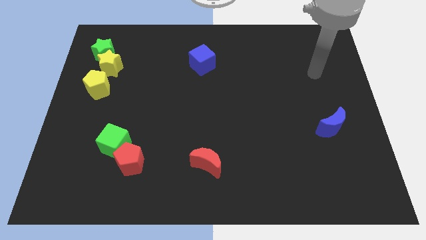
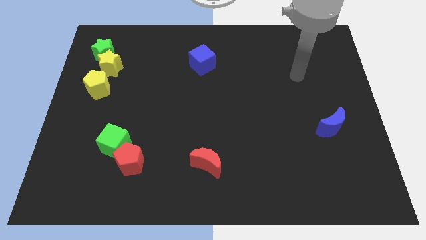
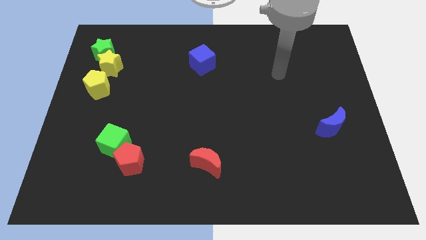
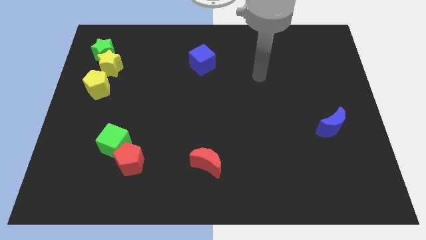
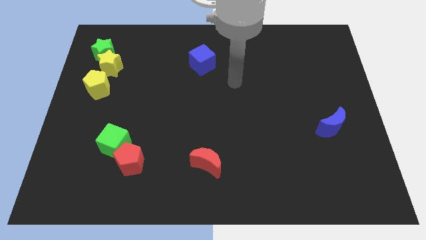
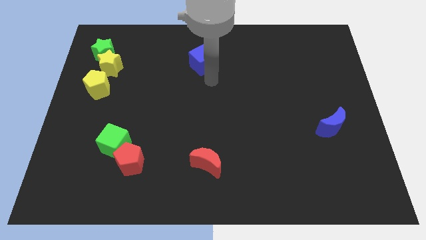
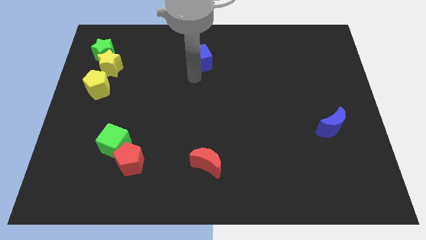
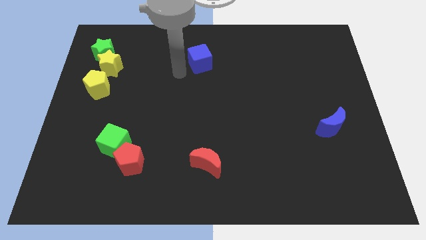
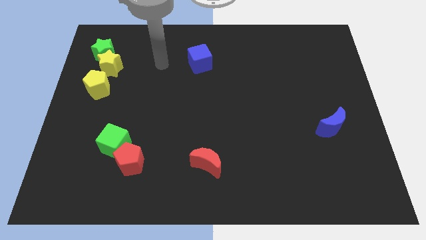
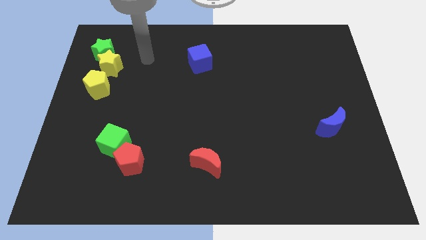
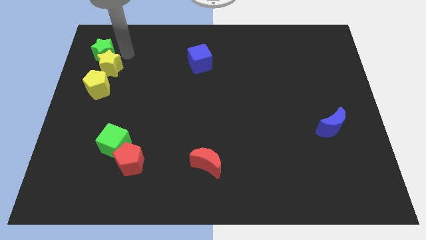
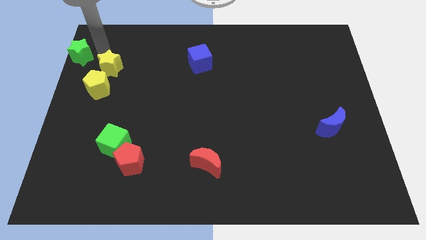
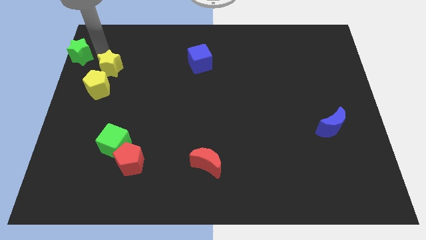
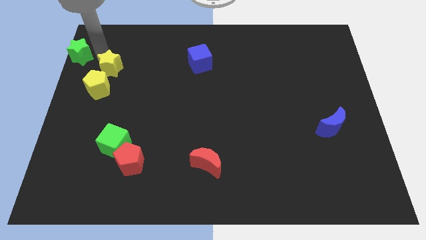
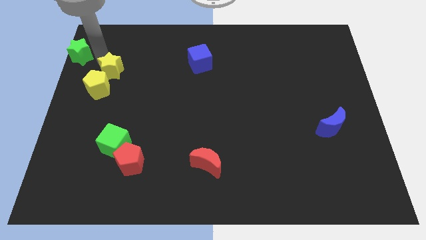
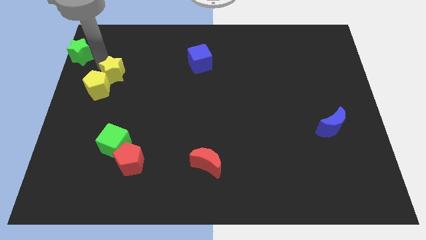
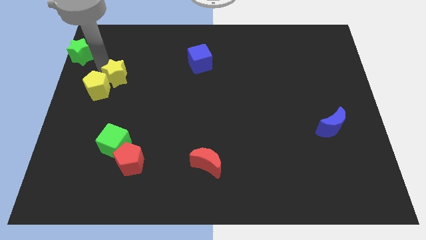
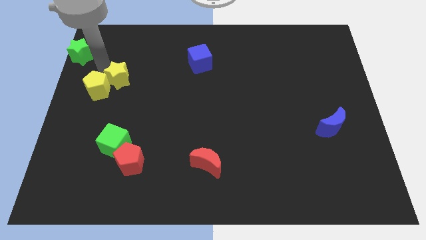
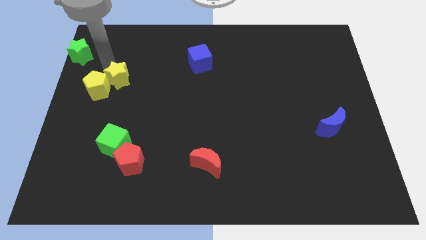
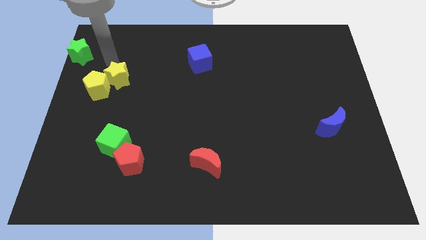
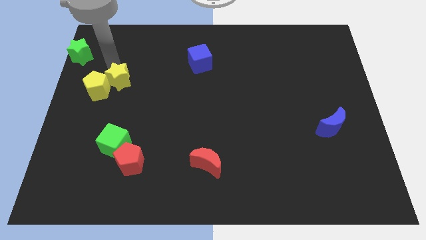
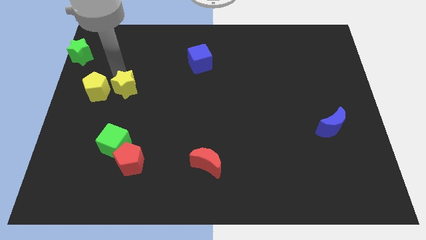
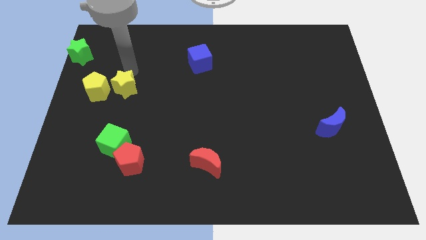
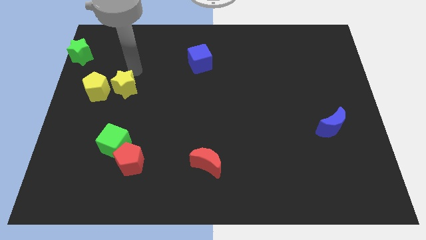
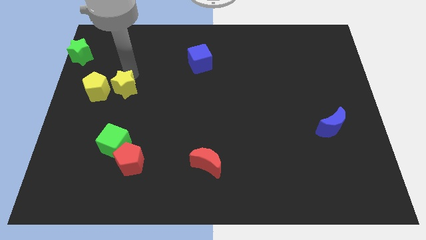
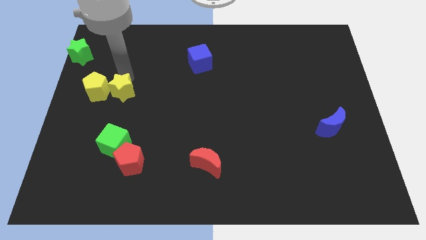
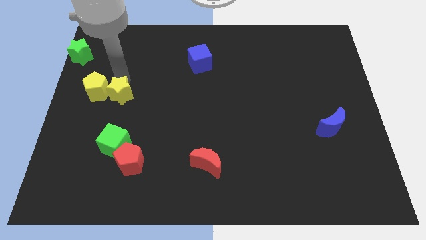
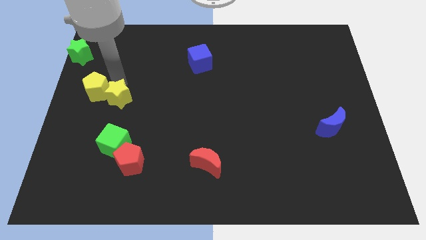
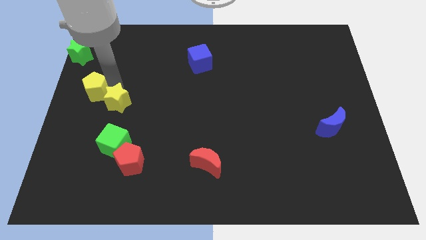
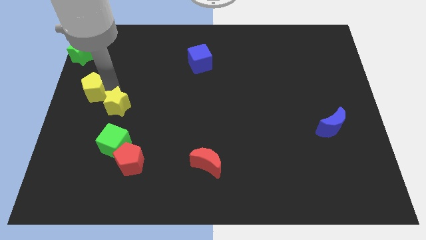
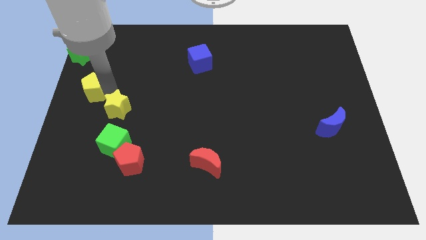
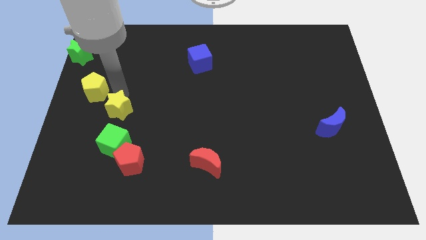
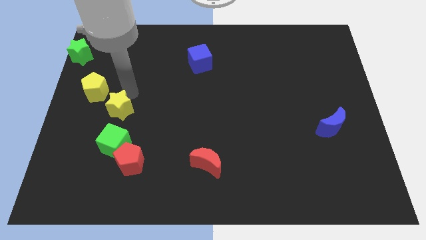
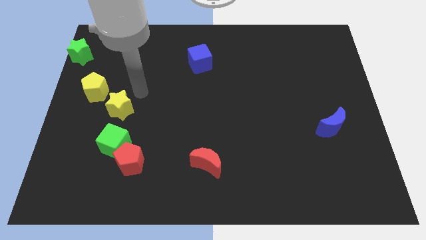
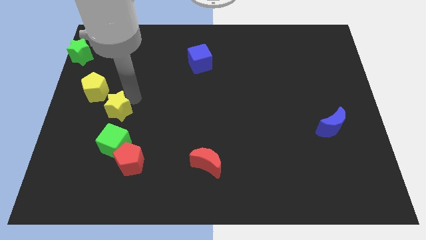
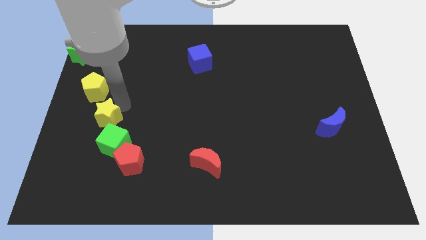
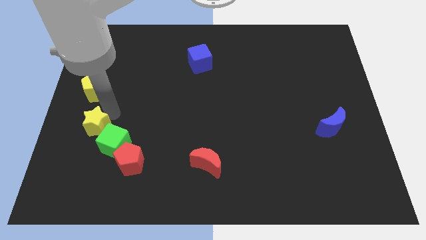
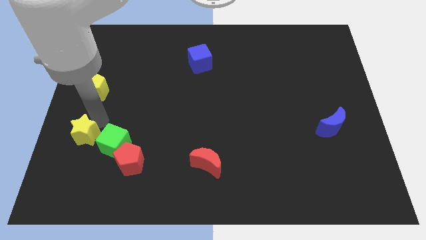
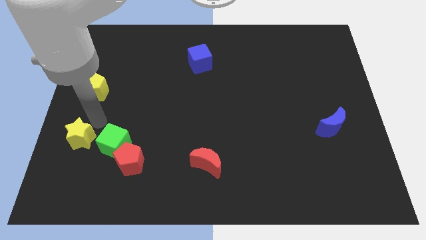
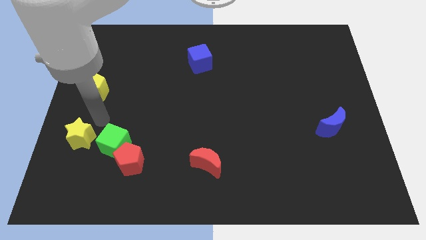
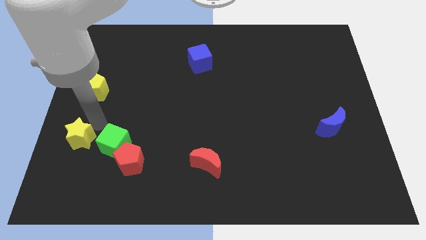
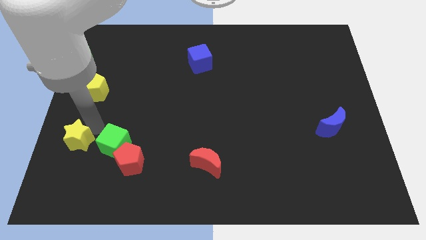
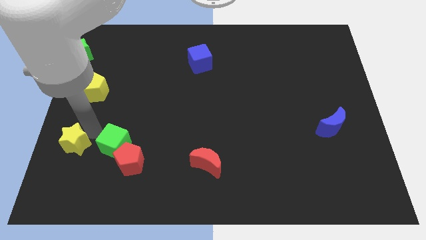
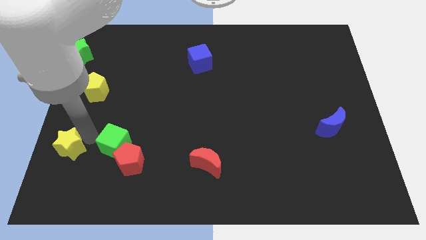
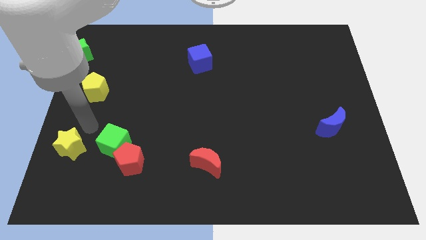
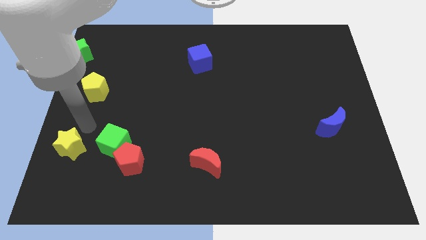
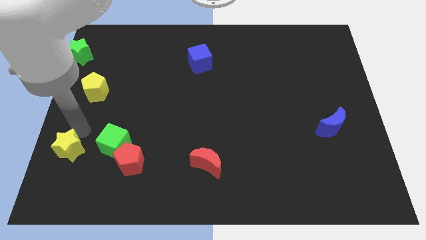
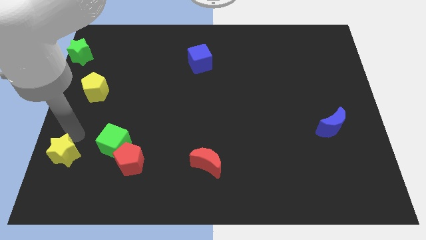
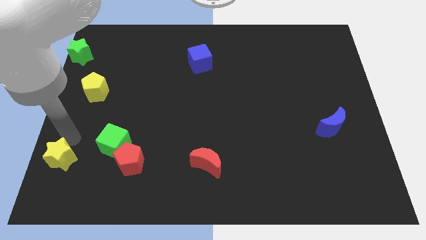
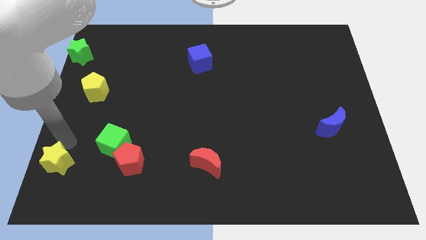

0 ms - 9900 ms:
push the yellow star to the bottom left of the board

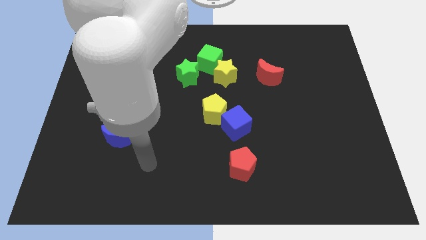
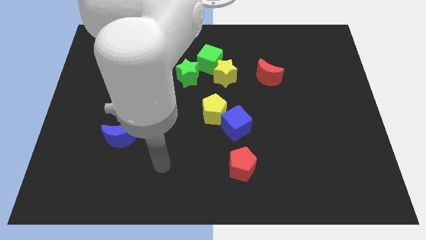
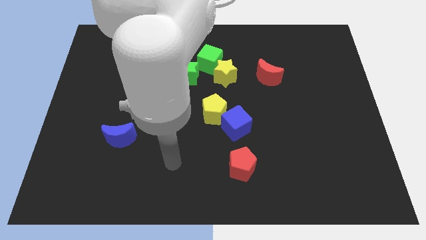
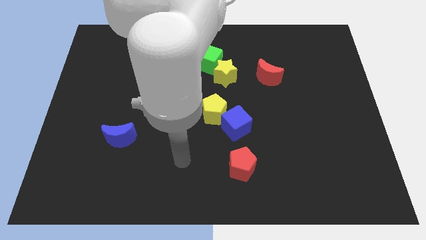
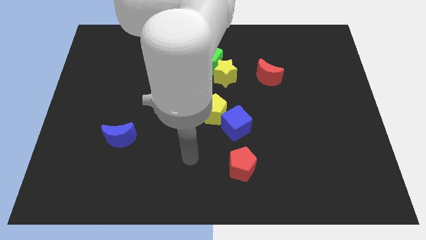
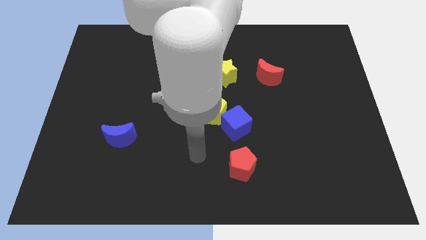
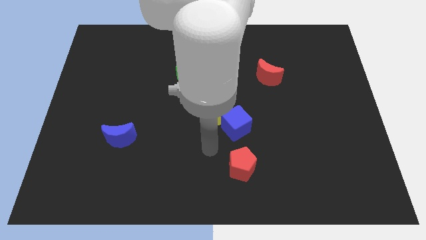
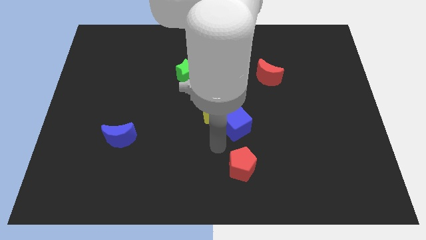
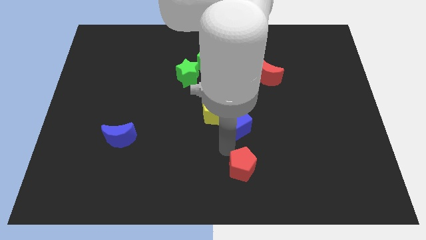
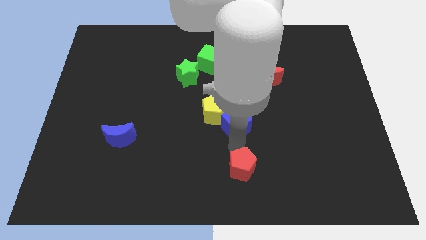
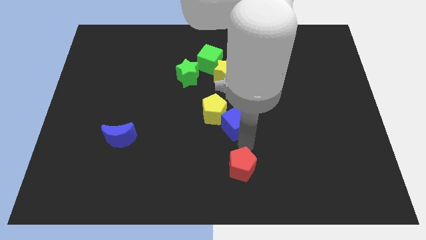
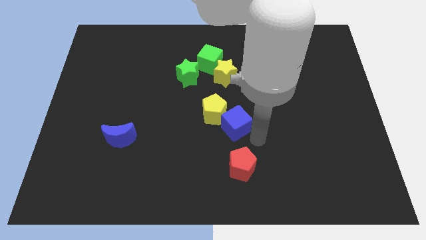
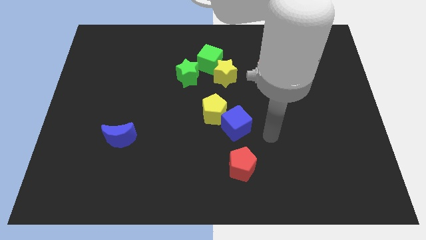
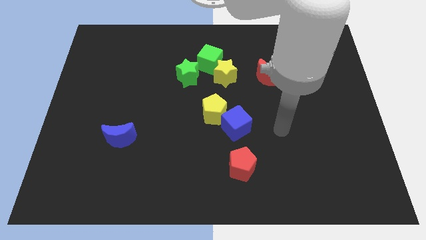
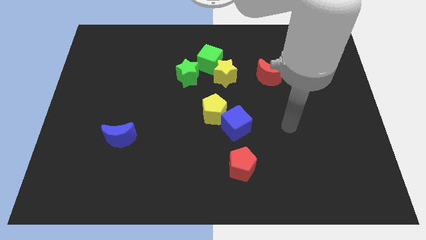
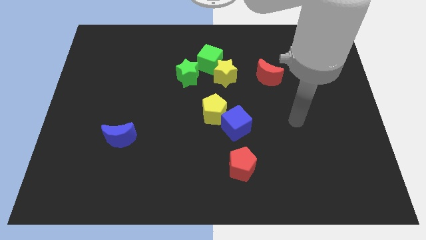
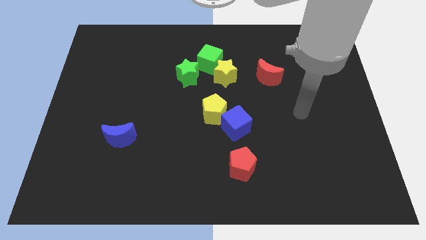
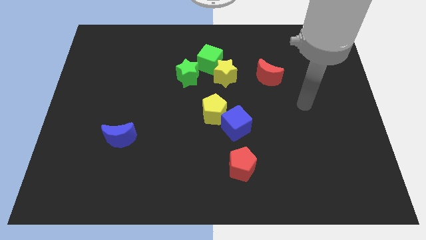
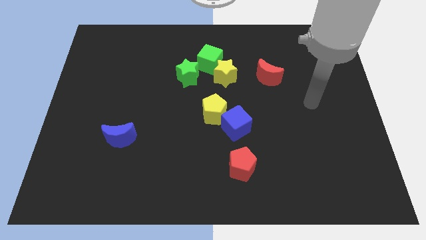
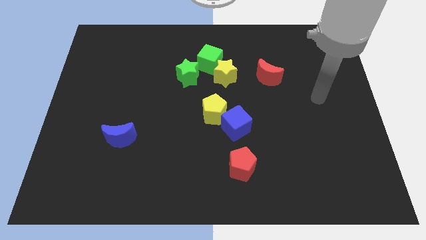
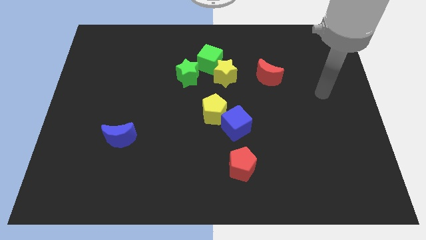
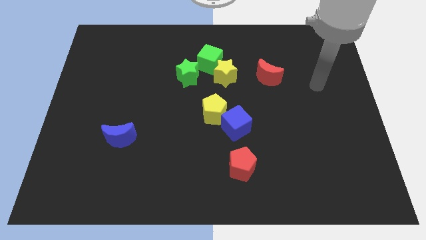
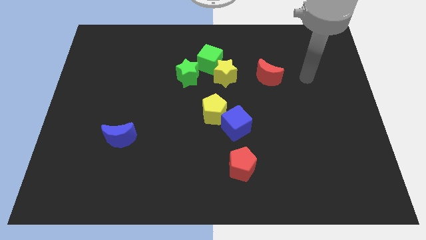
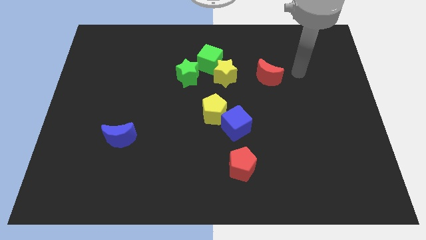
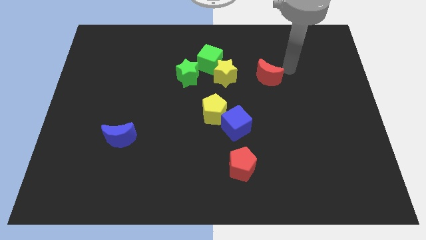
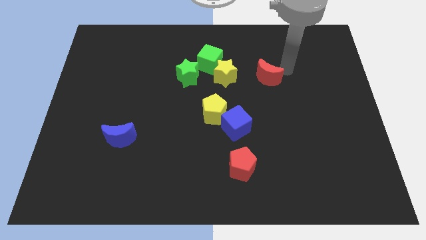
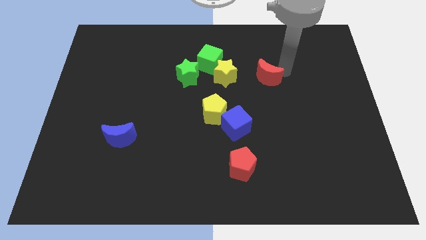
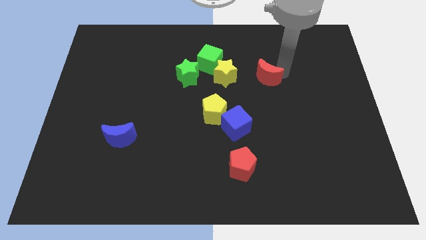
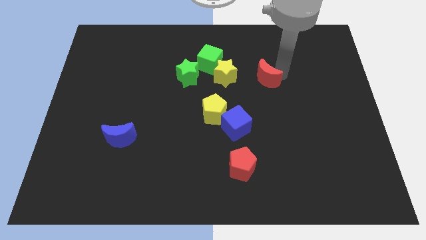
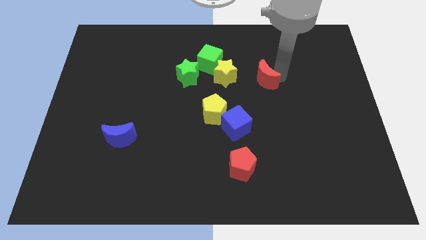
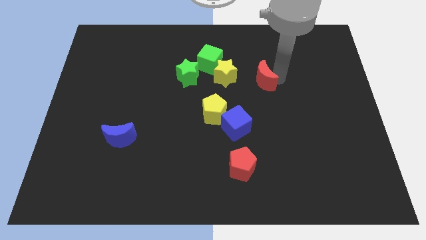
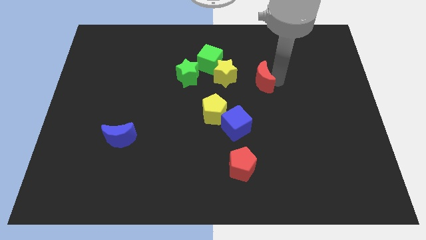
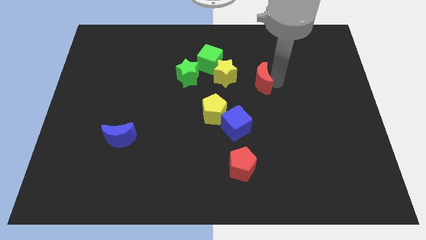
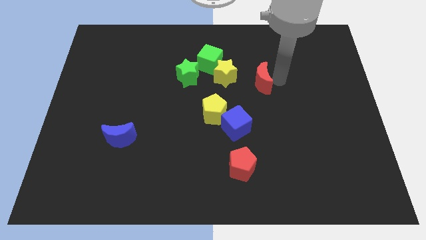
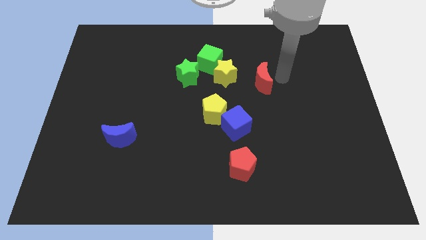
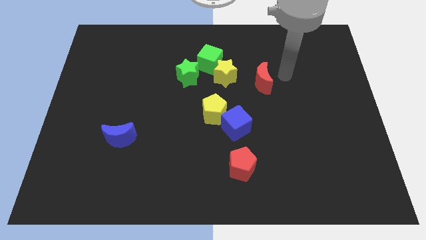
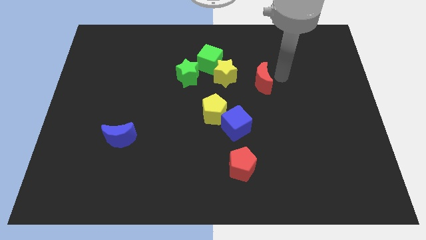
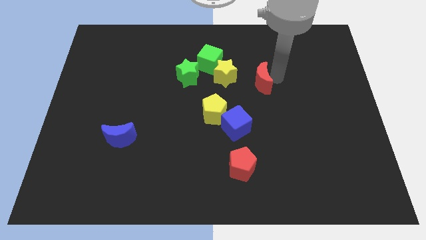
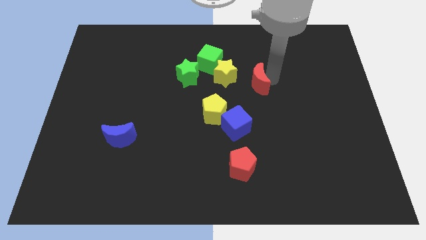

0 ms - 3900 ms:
push the red moon to the middle of the board
